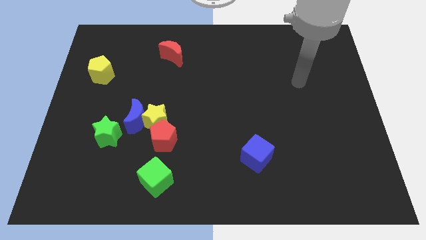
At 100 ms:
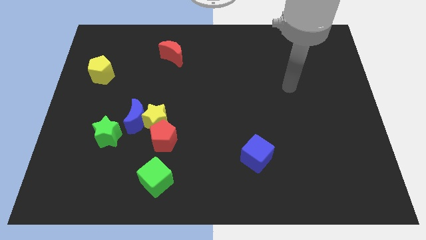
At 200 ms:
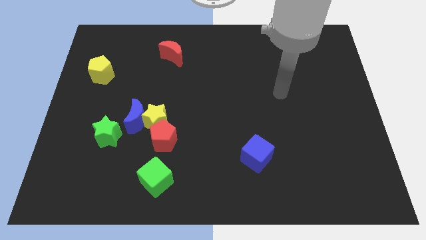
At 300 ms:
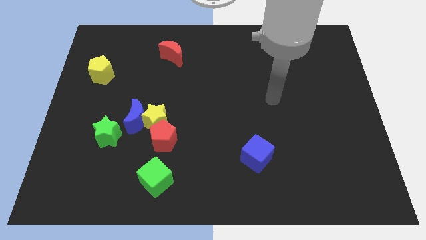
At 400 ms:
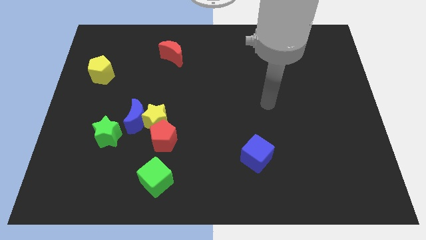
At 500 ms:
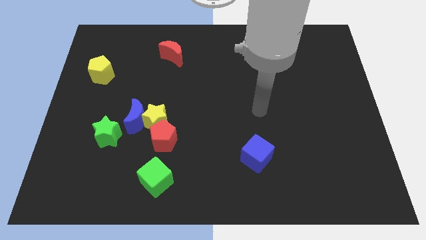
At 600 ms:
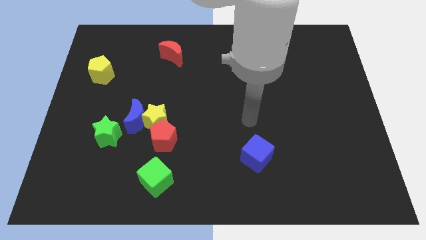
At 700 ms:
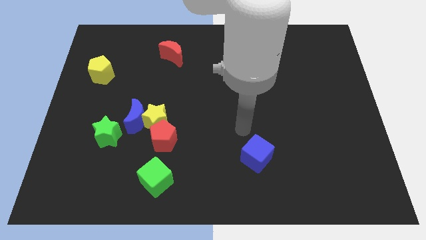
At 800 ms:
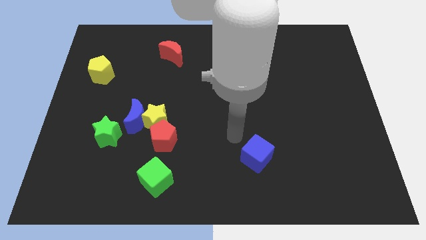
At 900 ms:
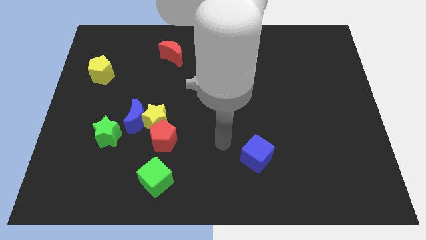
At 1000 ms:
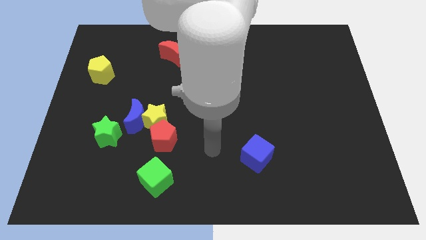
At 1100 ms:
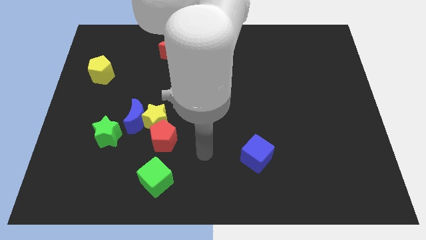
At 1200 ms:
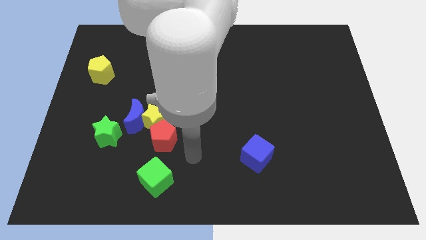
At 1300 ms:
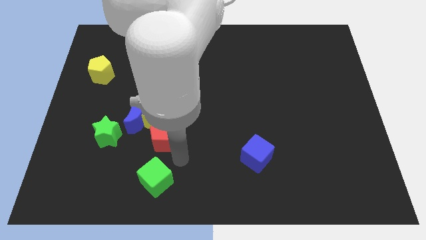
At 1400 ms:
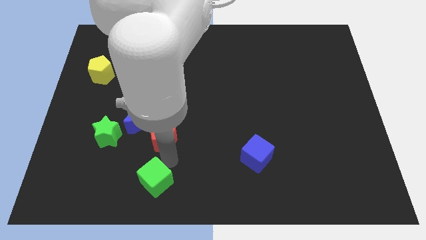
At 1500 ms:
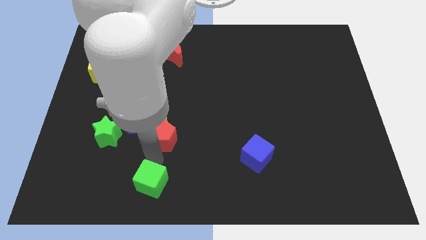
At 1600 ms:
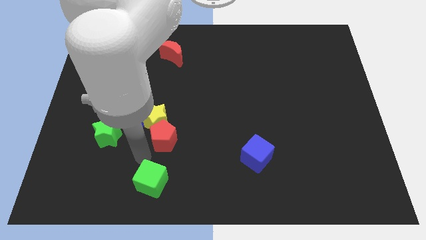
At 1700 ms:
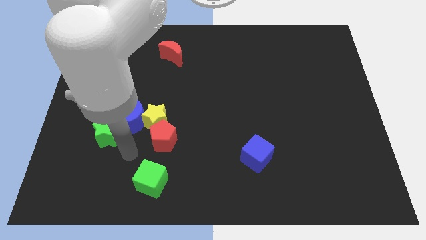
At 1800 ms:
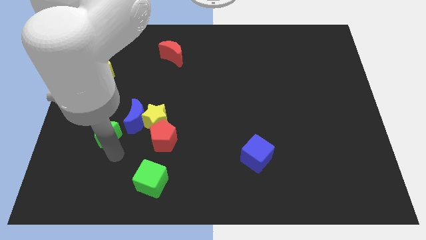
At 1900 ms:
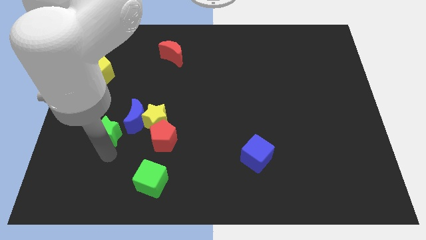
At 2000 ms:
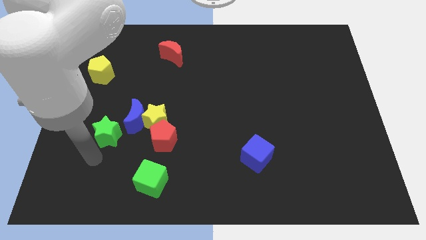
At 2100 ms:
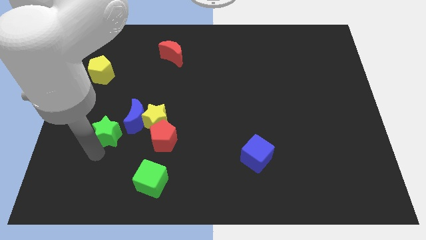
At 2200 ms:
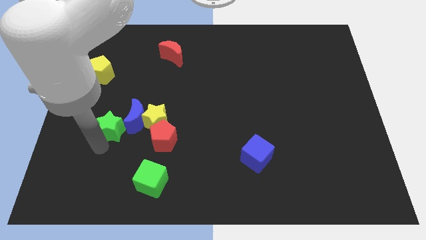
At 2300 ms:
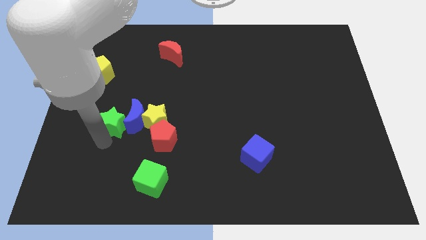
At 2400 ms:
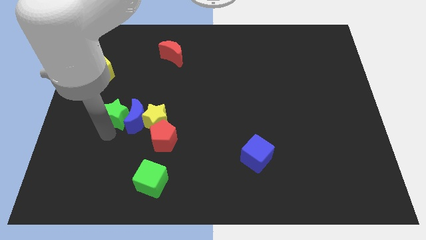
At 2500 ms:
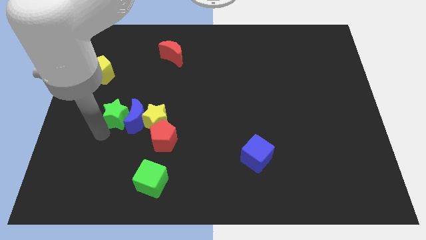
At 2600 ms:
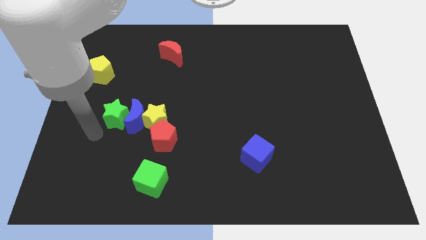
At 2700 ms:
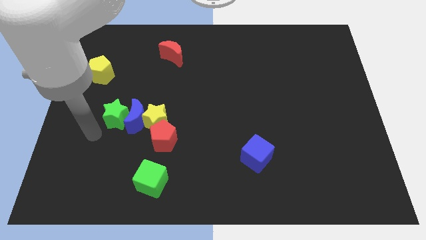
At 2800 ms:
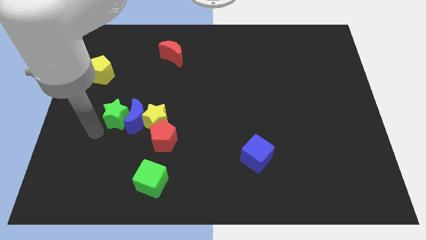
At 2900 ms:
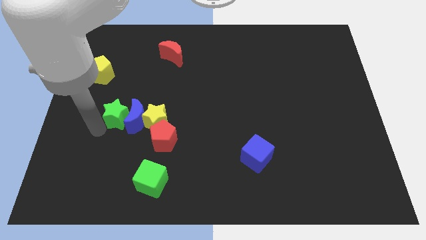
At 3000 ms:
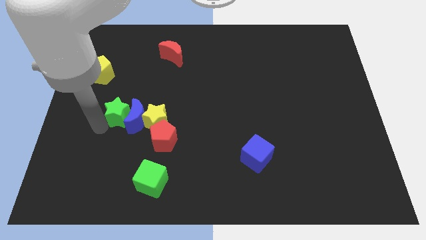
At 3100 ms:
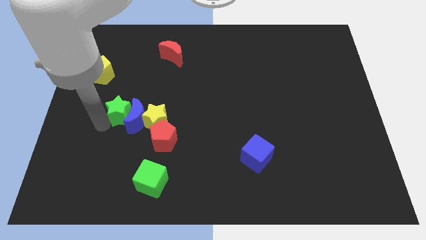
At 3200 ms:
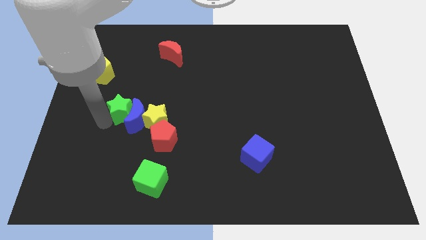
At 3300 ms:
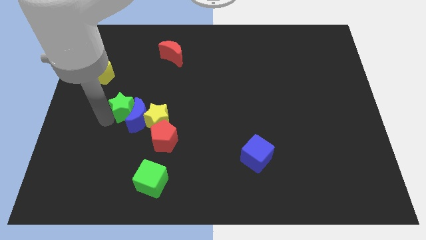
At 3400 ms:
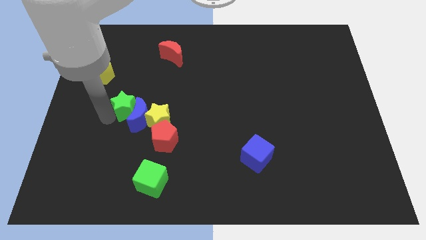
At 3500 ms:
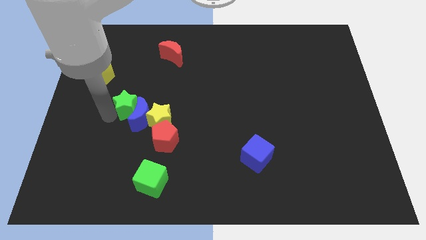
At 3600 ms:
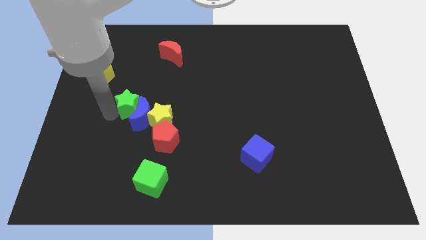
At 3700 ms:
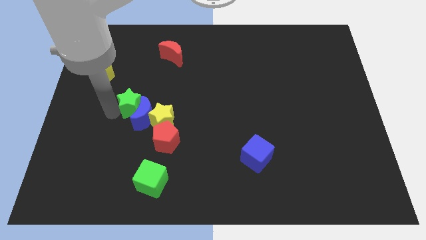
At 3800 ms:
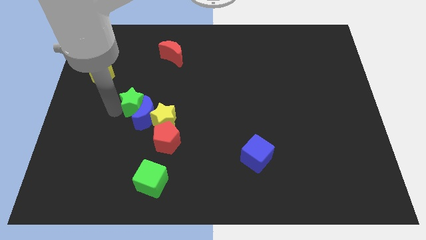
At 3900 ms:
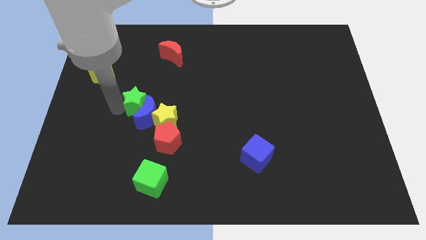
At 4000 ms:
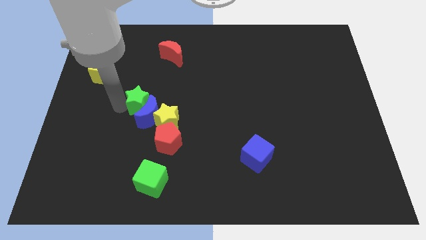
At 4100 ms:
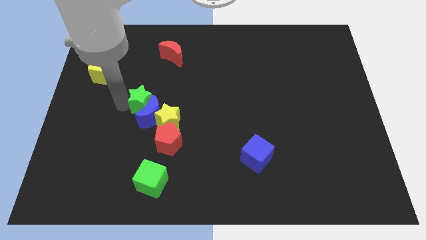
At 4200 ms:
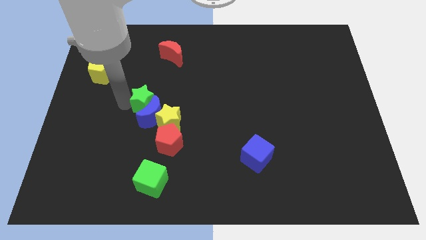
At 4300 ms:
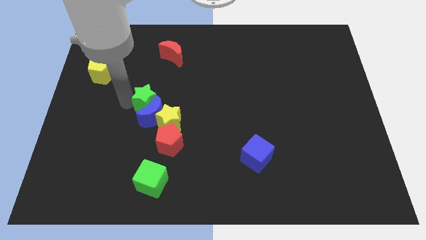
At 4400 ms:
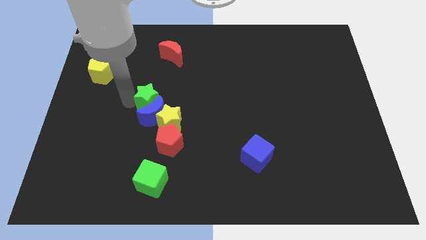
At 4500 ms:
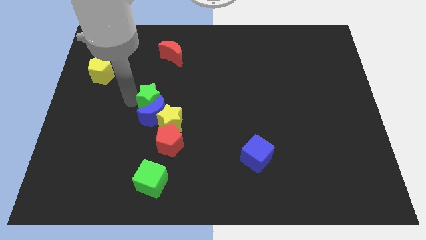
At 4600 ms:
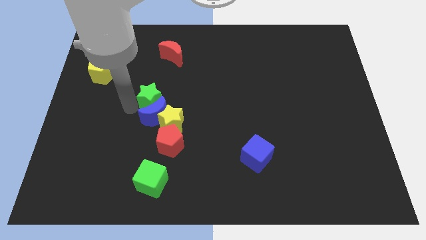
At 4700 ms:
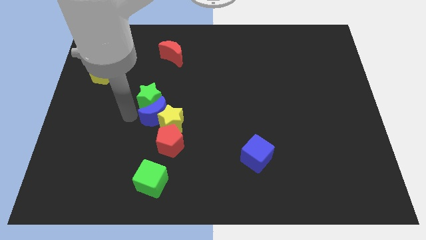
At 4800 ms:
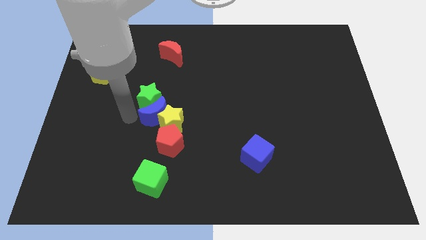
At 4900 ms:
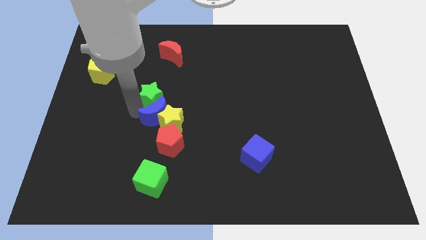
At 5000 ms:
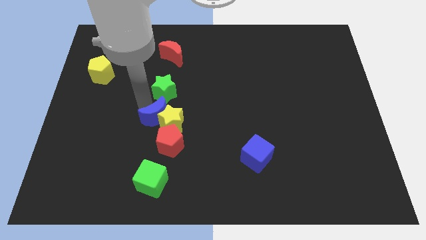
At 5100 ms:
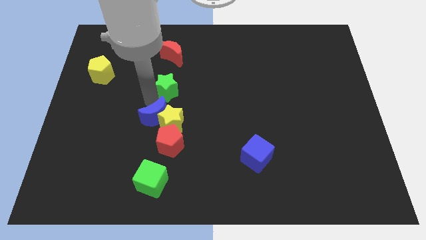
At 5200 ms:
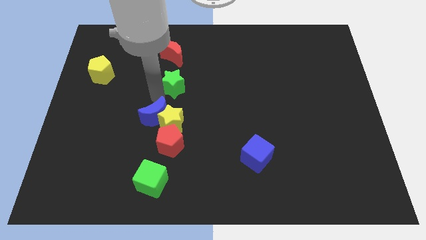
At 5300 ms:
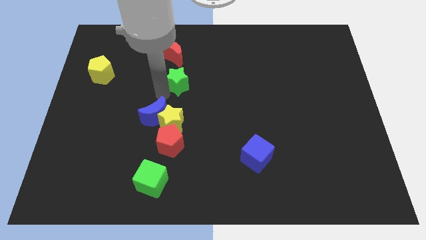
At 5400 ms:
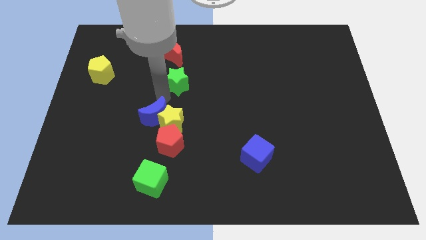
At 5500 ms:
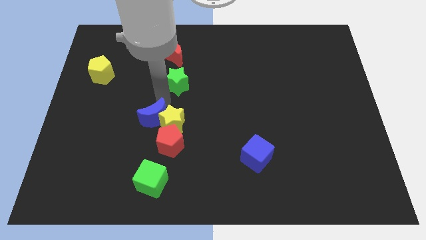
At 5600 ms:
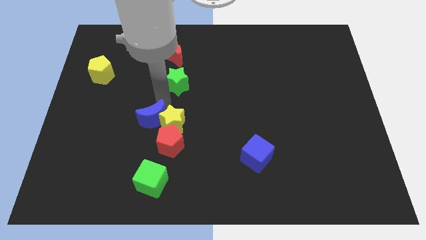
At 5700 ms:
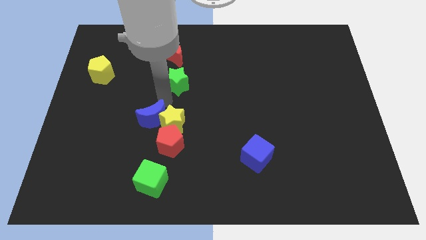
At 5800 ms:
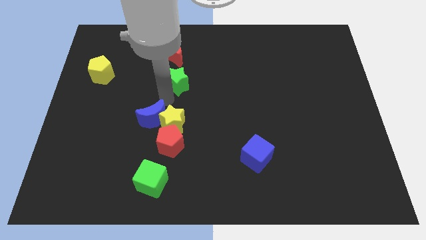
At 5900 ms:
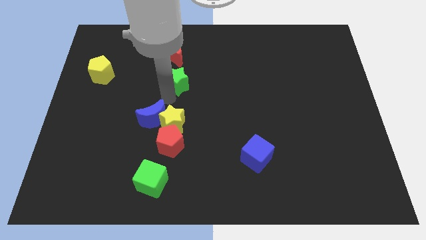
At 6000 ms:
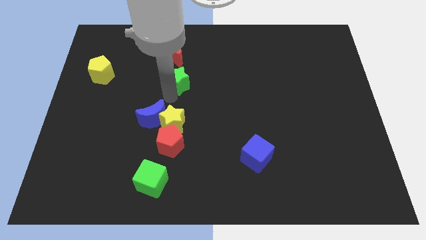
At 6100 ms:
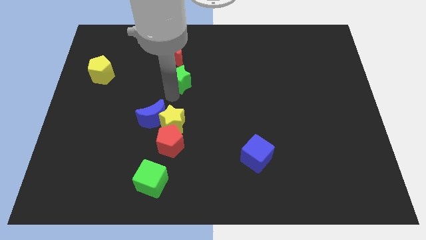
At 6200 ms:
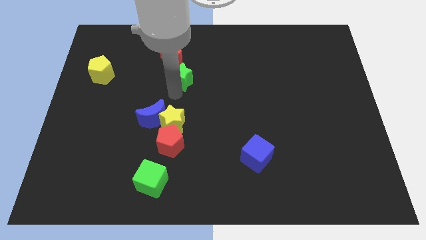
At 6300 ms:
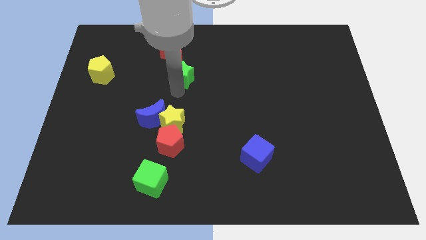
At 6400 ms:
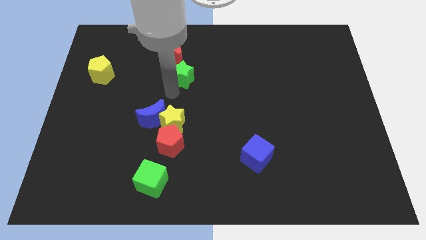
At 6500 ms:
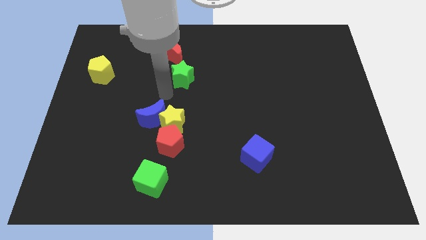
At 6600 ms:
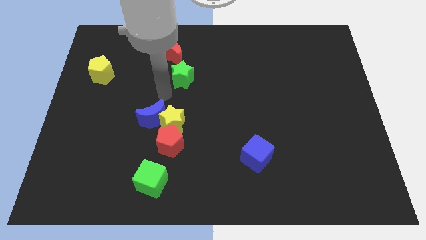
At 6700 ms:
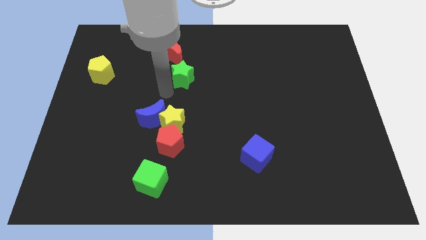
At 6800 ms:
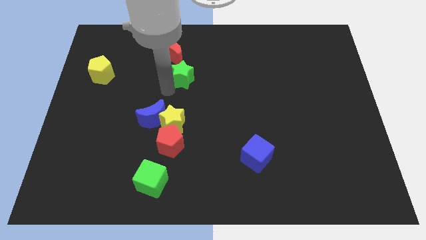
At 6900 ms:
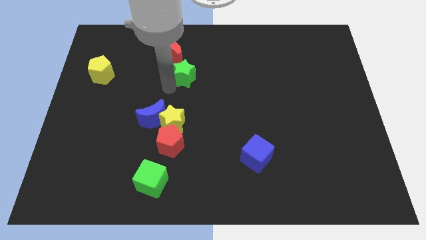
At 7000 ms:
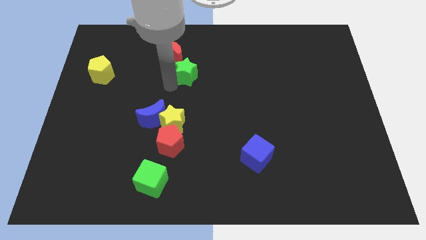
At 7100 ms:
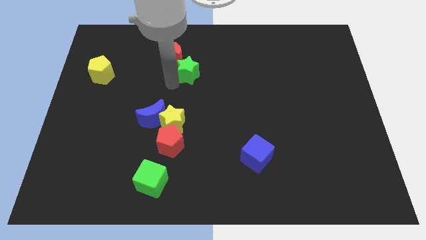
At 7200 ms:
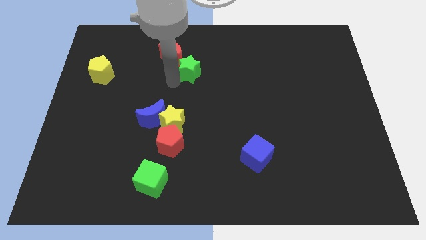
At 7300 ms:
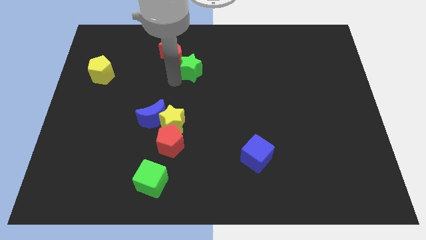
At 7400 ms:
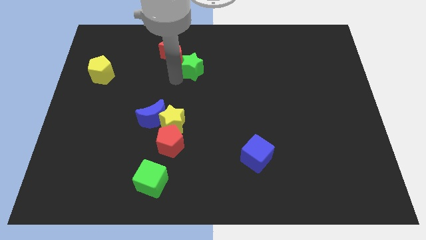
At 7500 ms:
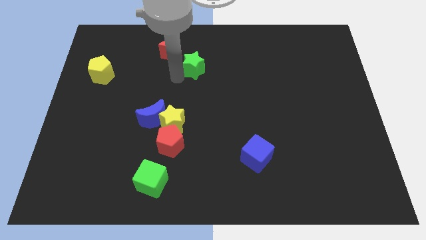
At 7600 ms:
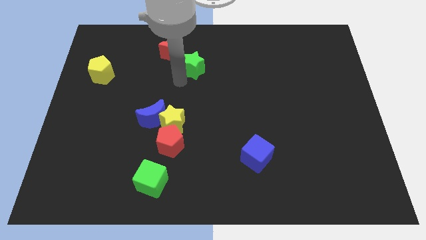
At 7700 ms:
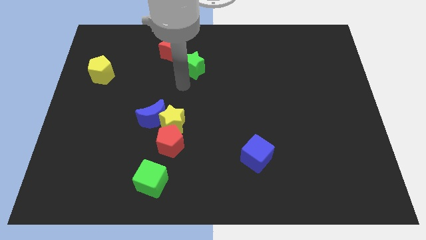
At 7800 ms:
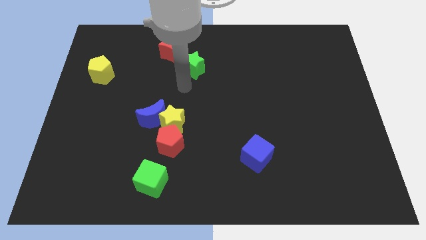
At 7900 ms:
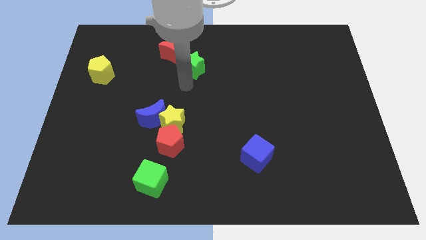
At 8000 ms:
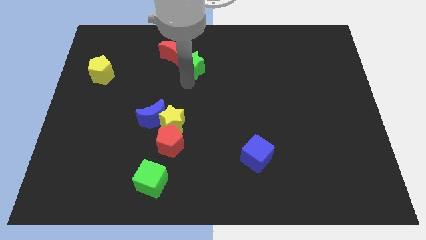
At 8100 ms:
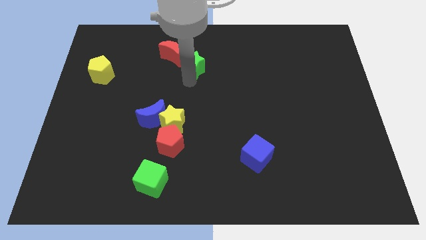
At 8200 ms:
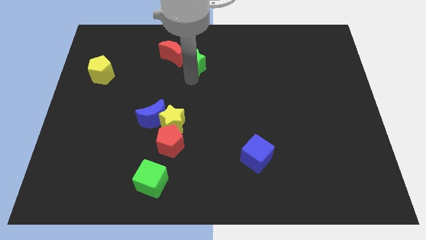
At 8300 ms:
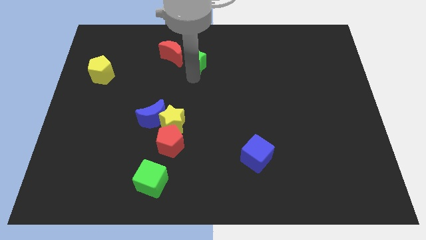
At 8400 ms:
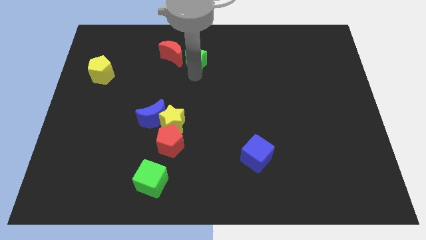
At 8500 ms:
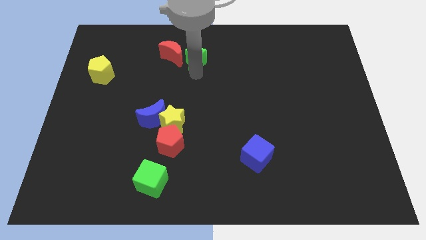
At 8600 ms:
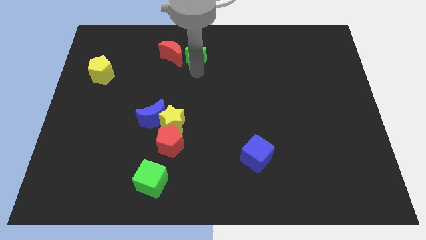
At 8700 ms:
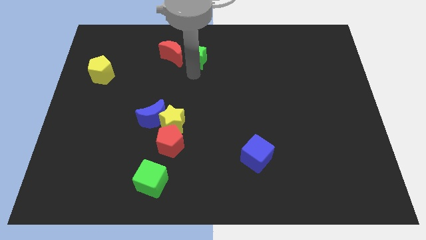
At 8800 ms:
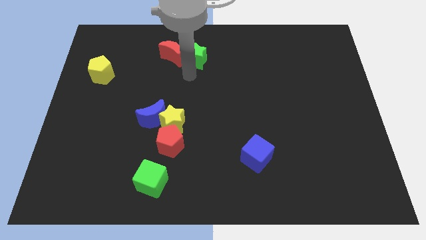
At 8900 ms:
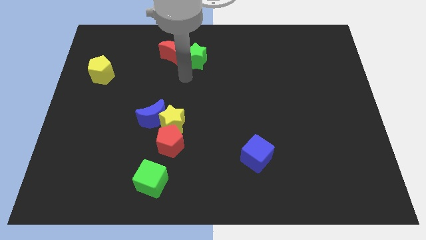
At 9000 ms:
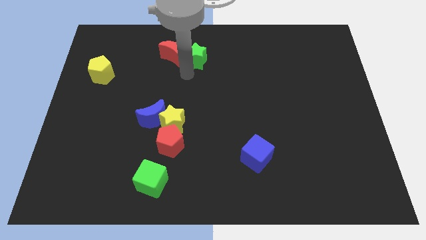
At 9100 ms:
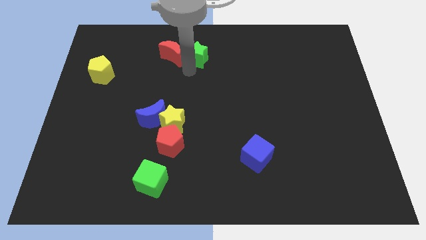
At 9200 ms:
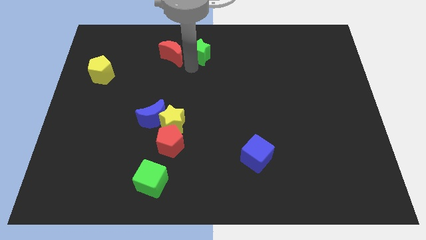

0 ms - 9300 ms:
put the green star to the towards your base
